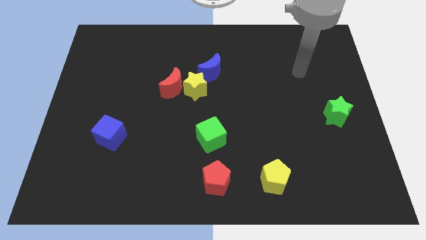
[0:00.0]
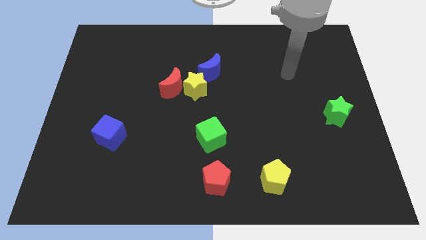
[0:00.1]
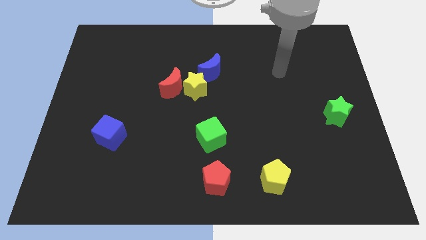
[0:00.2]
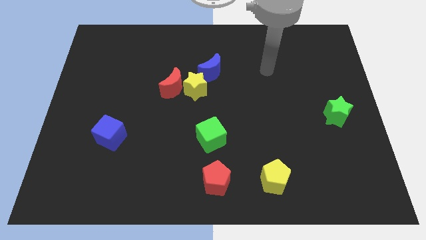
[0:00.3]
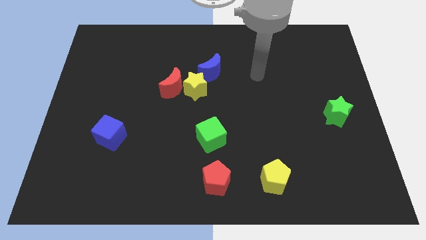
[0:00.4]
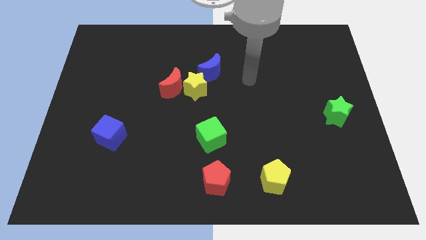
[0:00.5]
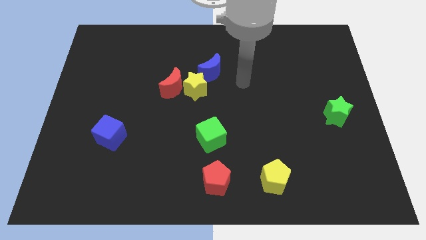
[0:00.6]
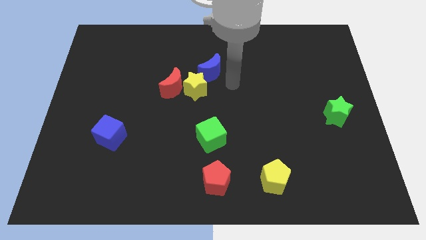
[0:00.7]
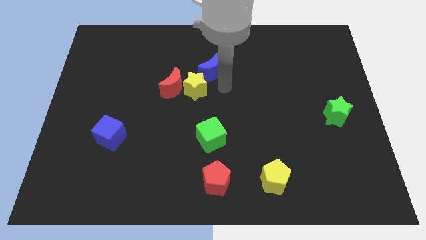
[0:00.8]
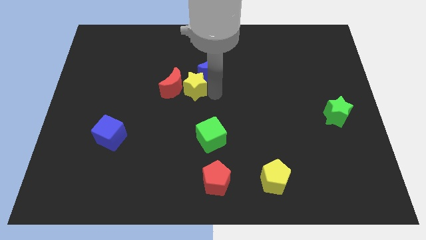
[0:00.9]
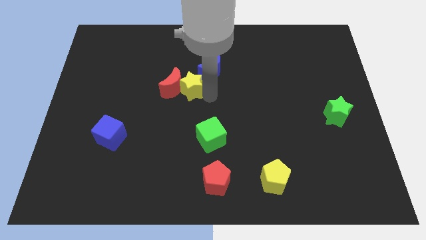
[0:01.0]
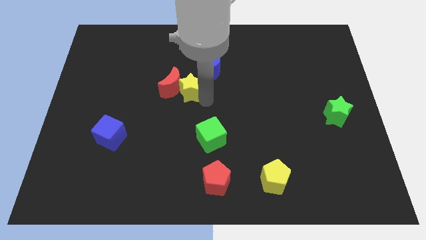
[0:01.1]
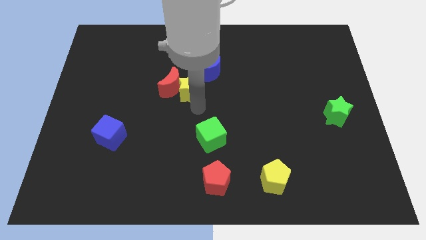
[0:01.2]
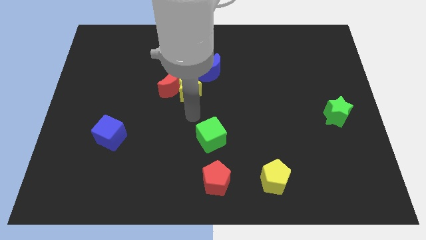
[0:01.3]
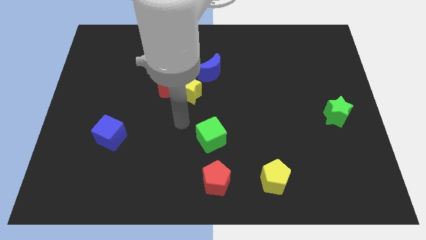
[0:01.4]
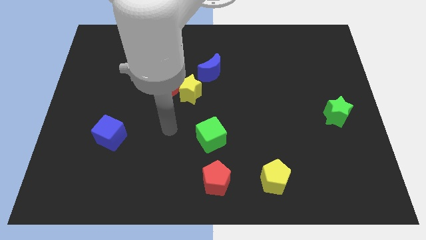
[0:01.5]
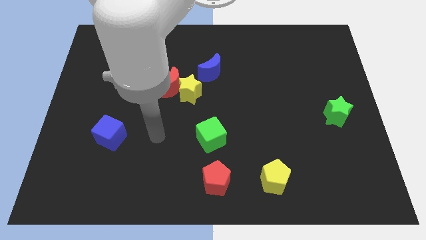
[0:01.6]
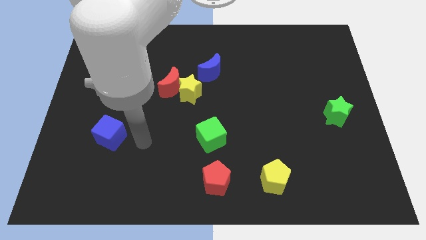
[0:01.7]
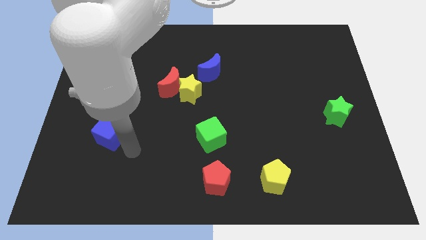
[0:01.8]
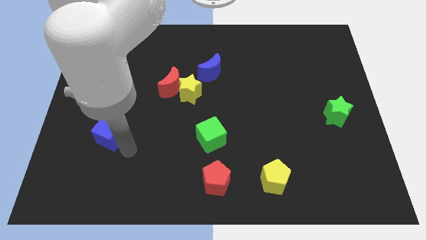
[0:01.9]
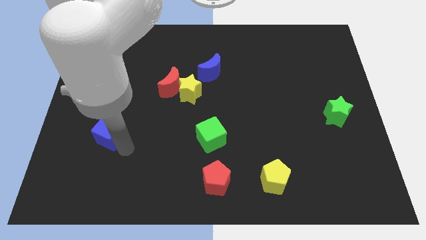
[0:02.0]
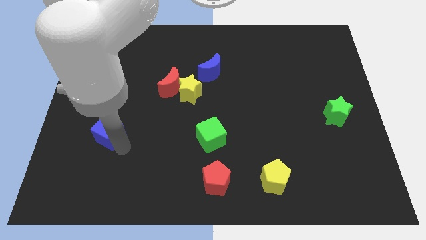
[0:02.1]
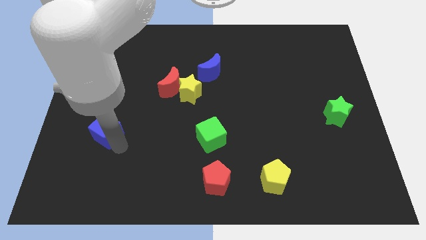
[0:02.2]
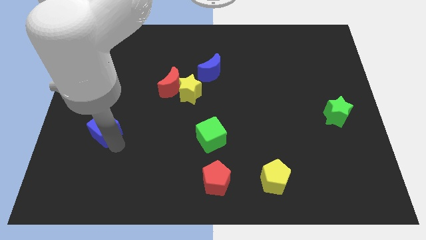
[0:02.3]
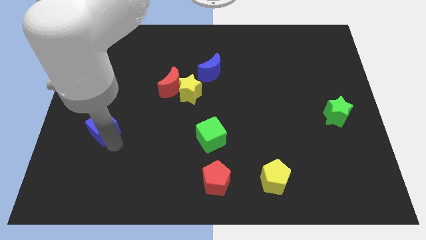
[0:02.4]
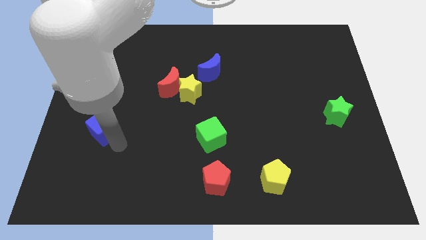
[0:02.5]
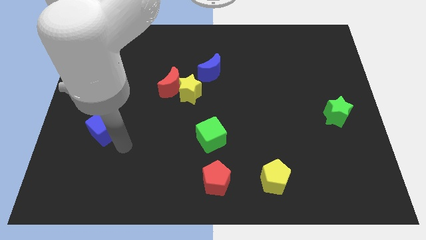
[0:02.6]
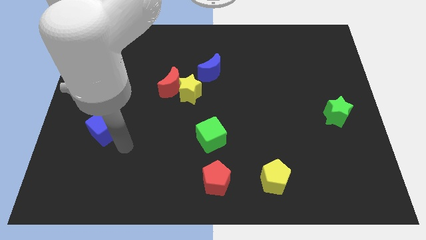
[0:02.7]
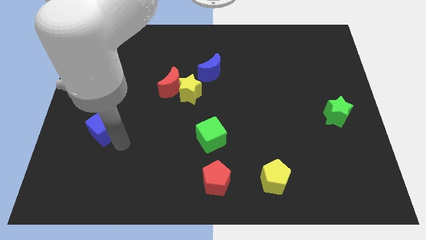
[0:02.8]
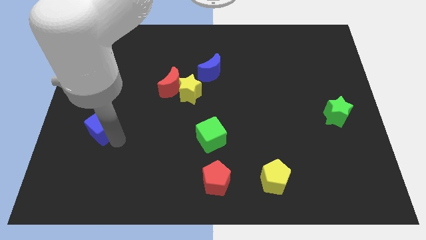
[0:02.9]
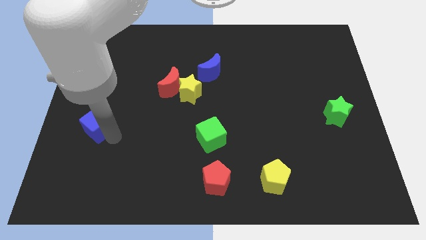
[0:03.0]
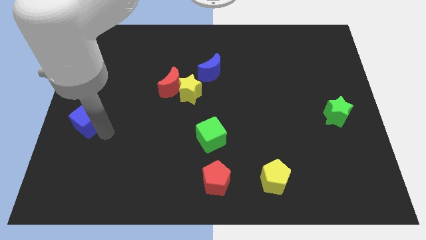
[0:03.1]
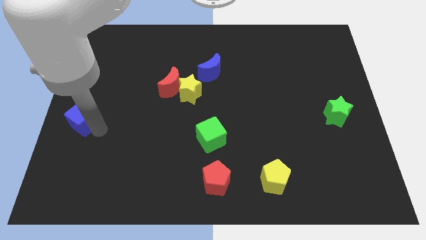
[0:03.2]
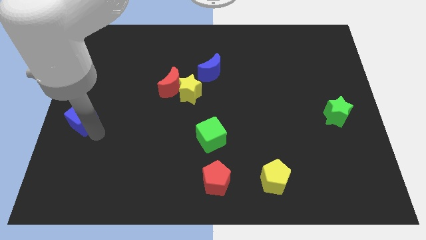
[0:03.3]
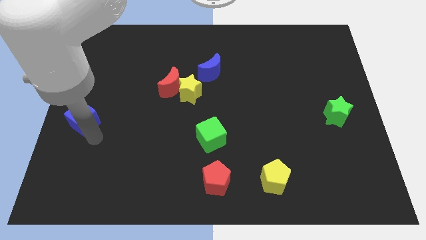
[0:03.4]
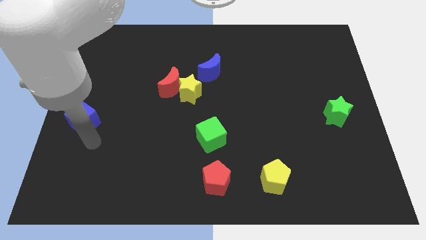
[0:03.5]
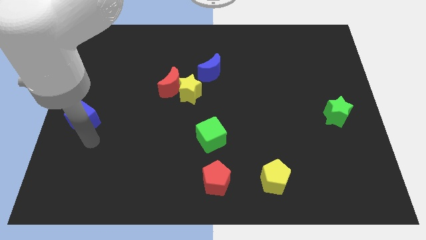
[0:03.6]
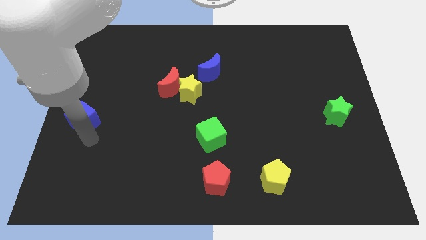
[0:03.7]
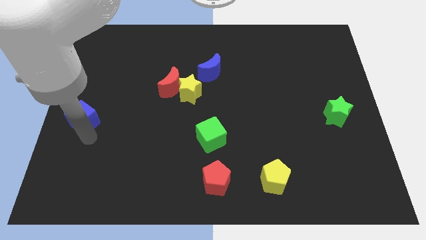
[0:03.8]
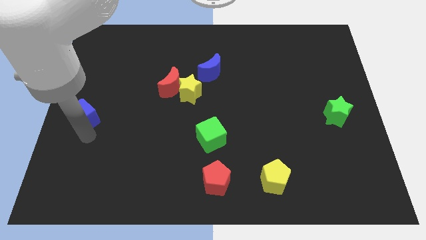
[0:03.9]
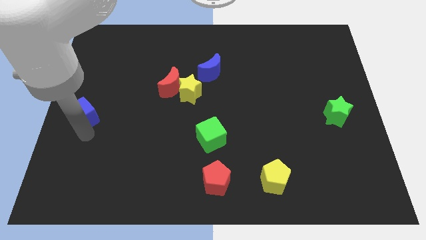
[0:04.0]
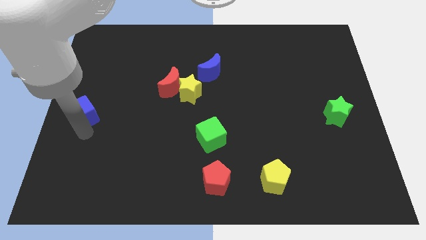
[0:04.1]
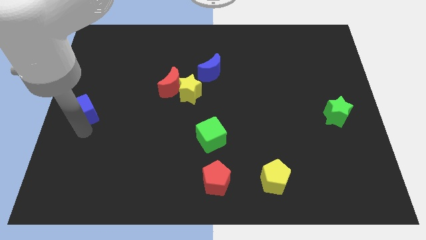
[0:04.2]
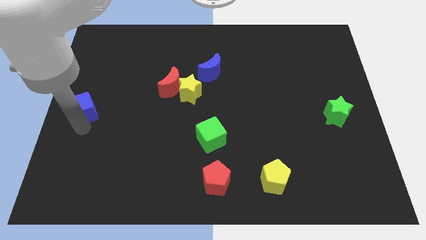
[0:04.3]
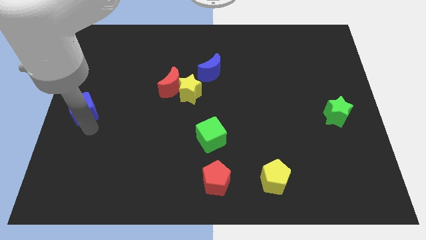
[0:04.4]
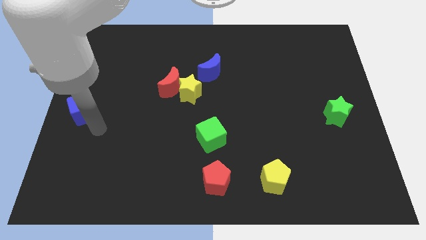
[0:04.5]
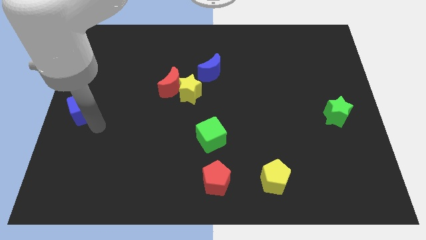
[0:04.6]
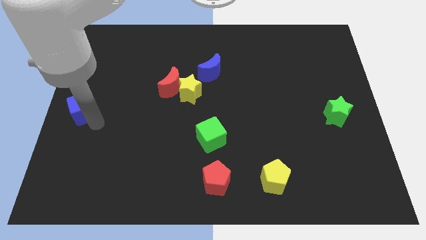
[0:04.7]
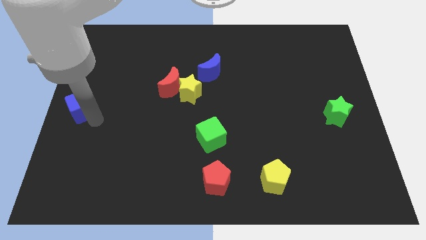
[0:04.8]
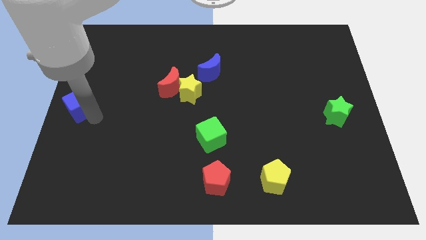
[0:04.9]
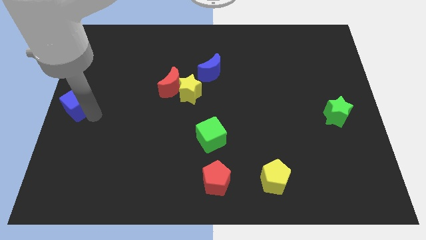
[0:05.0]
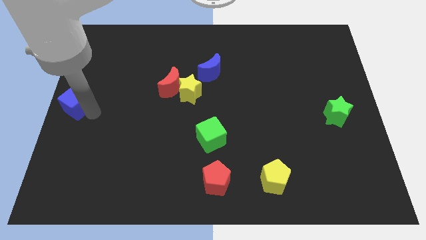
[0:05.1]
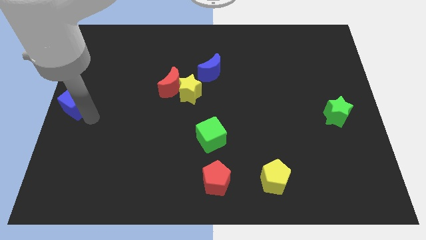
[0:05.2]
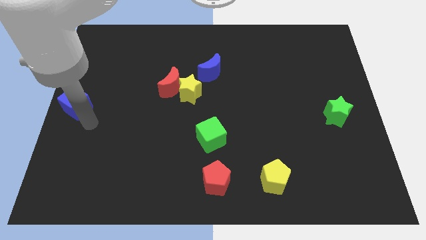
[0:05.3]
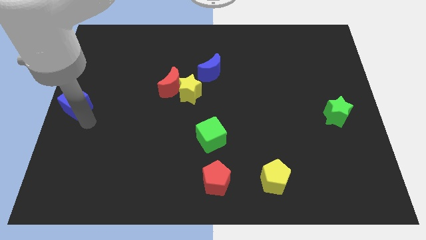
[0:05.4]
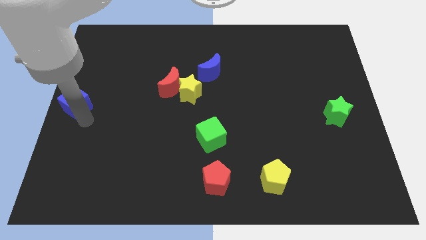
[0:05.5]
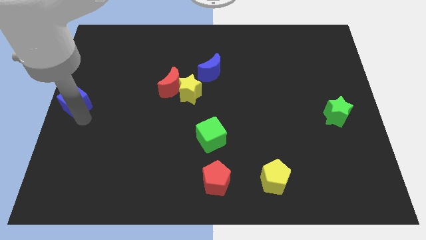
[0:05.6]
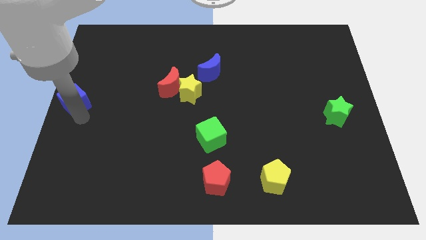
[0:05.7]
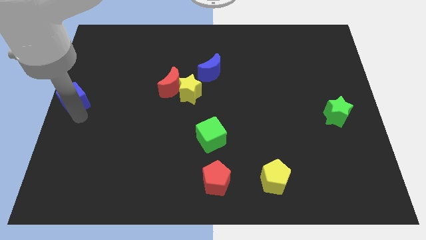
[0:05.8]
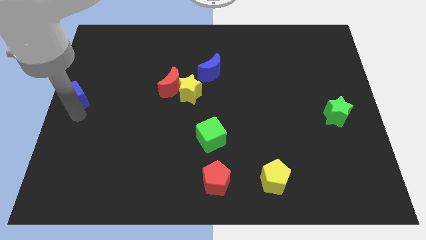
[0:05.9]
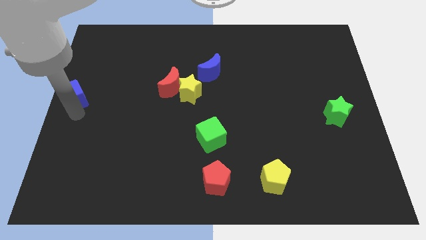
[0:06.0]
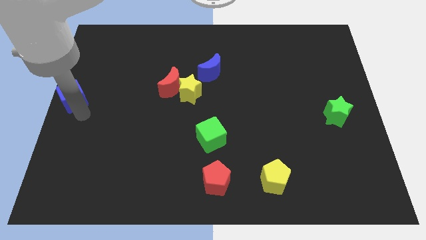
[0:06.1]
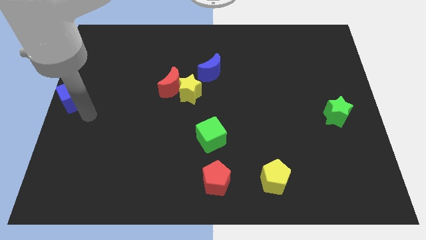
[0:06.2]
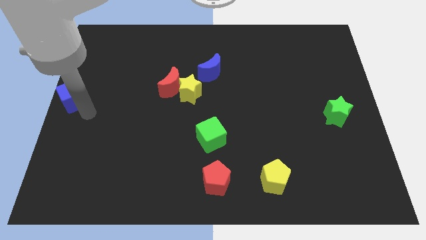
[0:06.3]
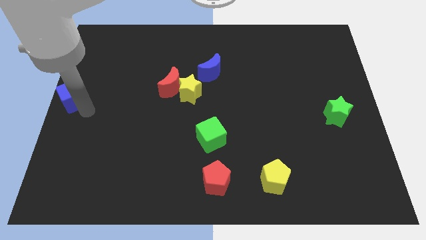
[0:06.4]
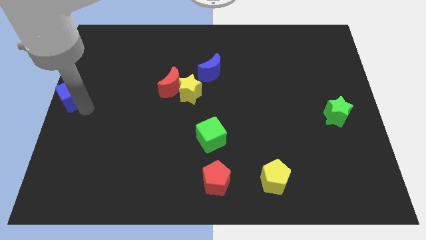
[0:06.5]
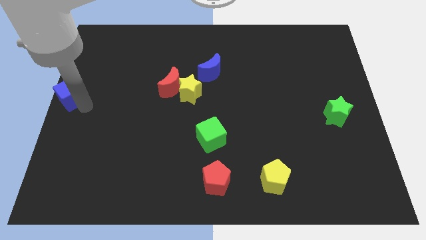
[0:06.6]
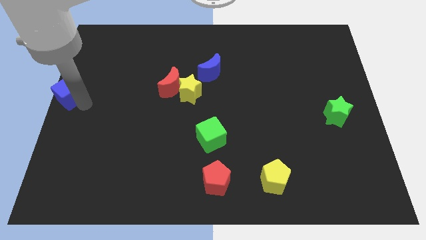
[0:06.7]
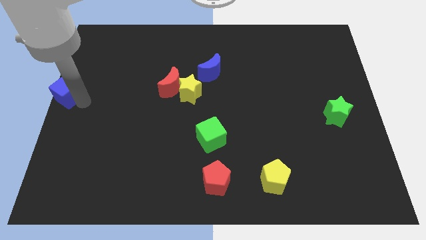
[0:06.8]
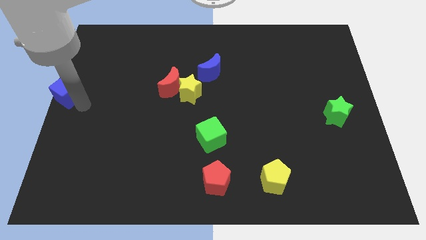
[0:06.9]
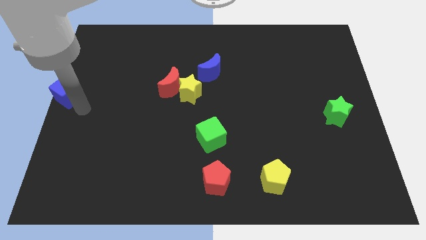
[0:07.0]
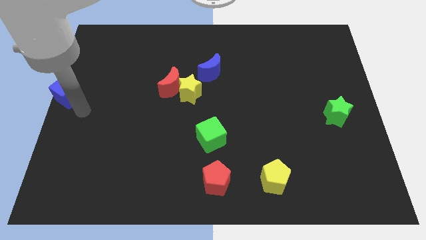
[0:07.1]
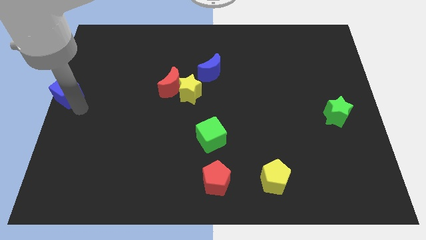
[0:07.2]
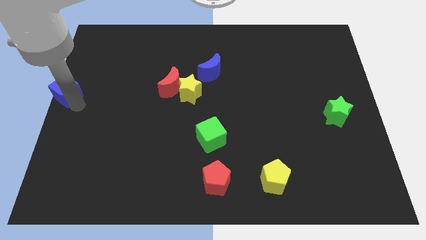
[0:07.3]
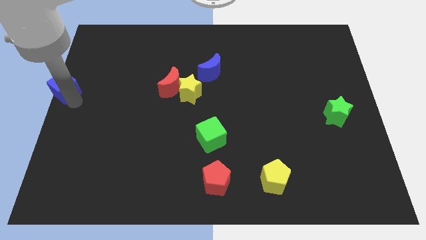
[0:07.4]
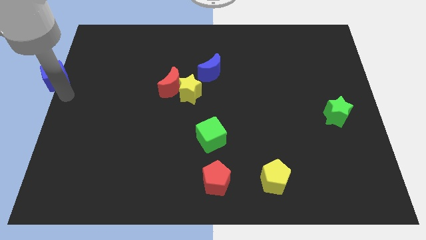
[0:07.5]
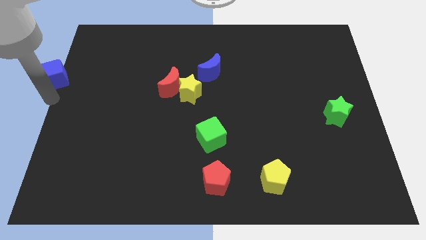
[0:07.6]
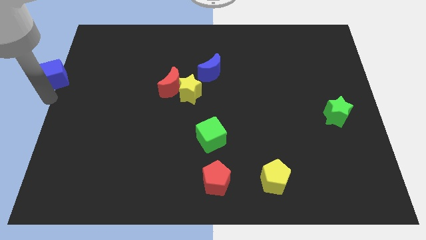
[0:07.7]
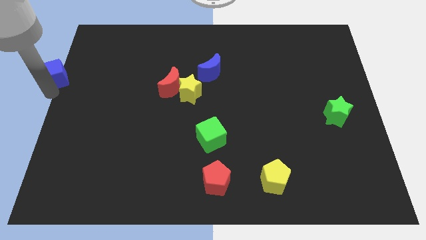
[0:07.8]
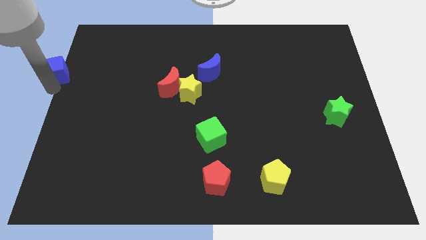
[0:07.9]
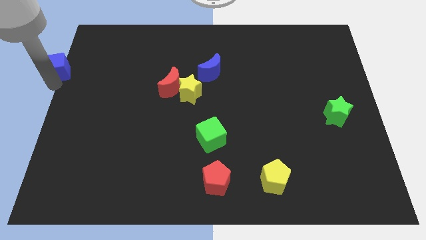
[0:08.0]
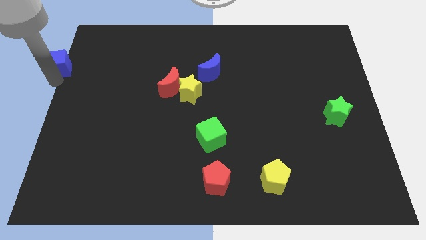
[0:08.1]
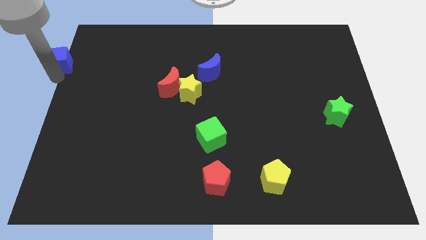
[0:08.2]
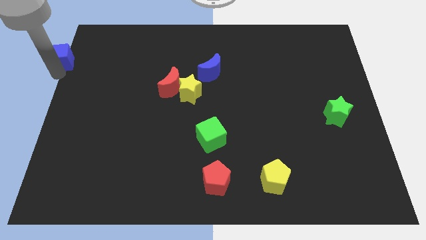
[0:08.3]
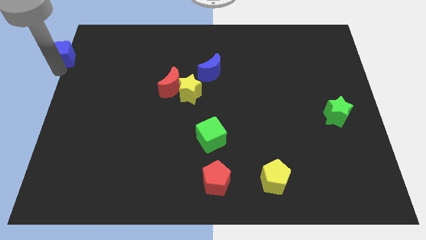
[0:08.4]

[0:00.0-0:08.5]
push the blue cube to the top left
